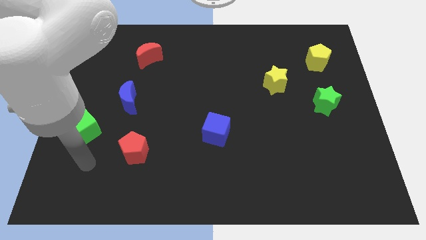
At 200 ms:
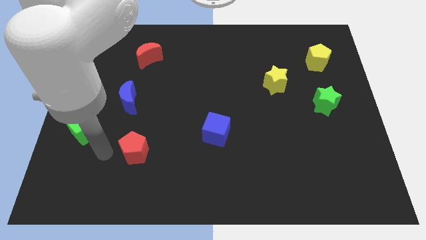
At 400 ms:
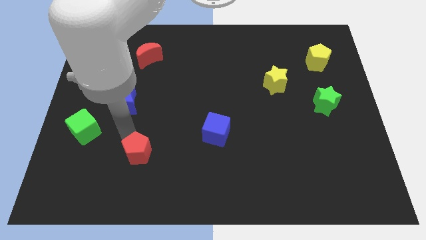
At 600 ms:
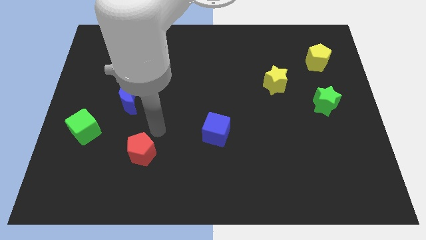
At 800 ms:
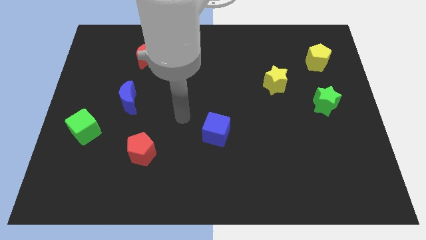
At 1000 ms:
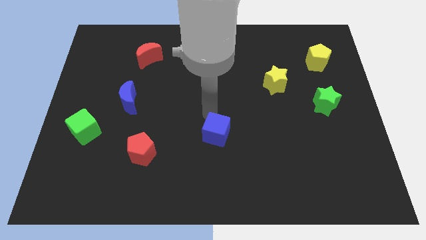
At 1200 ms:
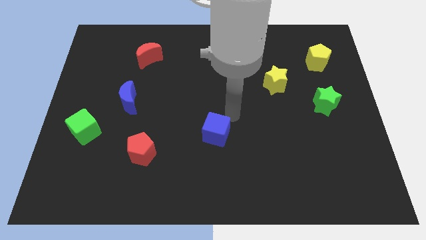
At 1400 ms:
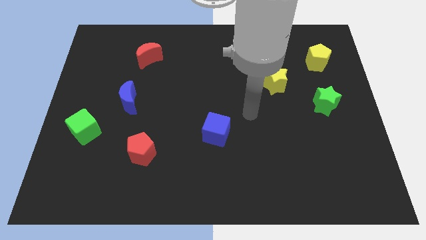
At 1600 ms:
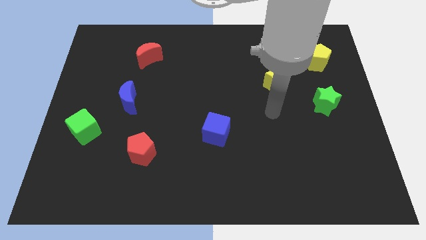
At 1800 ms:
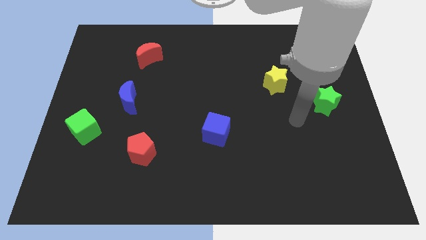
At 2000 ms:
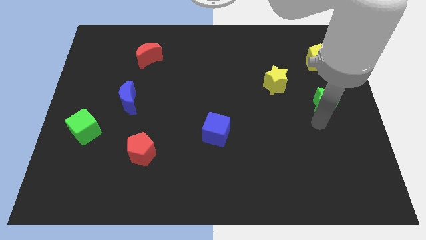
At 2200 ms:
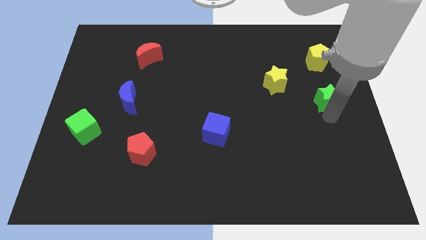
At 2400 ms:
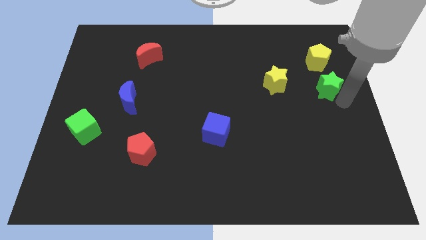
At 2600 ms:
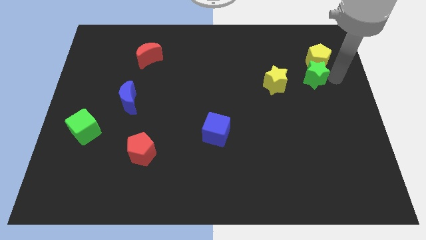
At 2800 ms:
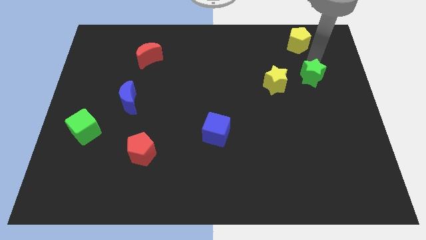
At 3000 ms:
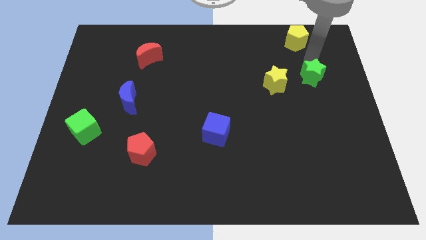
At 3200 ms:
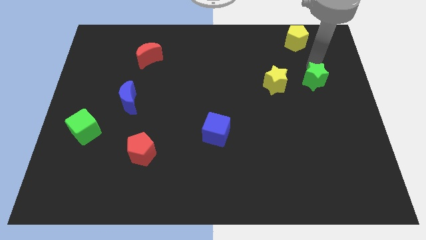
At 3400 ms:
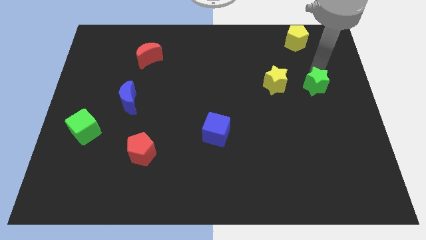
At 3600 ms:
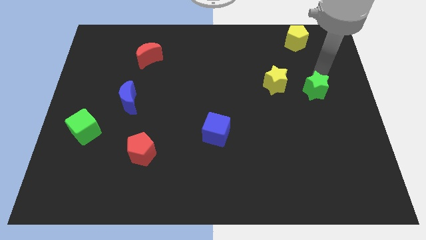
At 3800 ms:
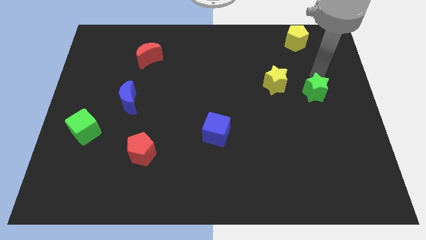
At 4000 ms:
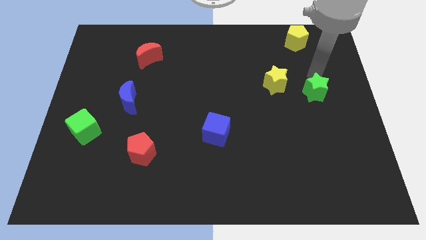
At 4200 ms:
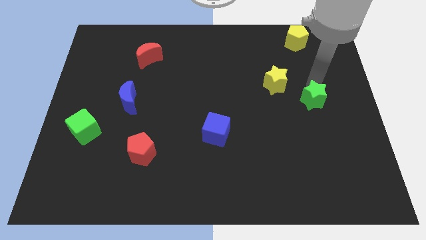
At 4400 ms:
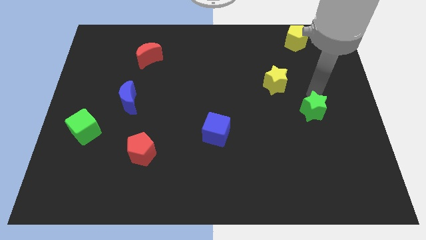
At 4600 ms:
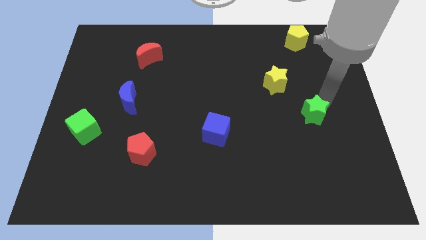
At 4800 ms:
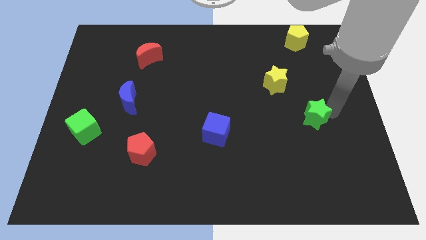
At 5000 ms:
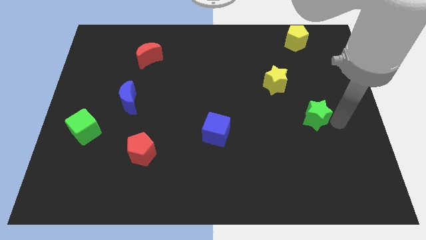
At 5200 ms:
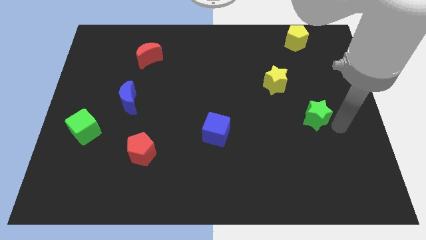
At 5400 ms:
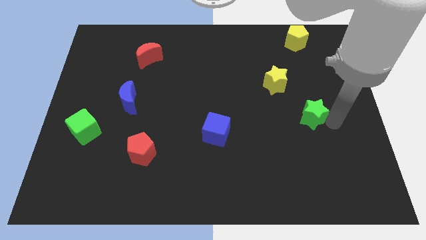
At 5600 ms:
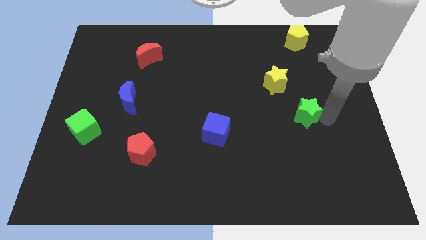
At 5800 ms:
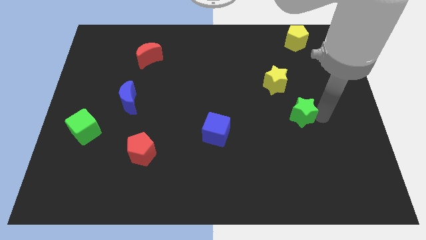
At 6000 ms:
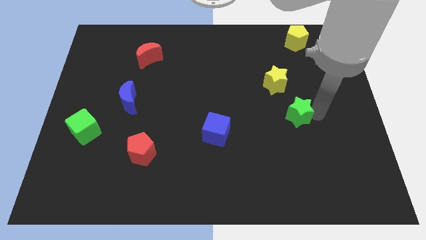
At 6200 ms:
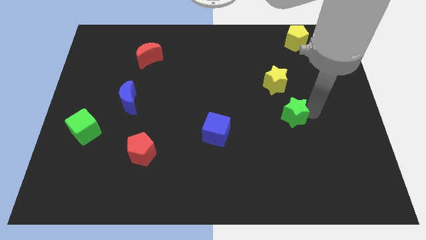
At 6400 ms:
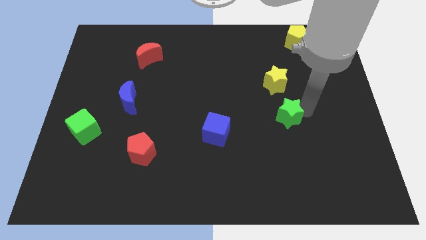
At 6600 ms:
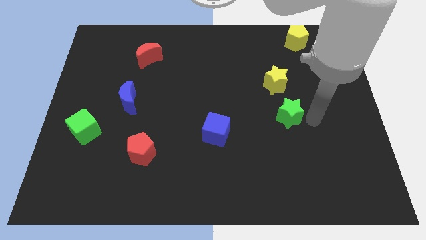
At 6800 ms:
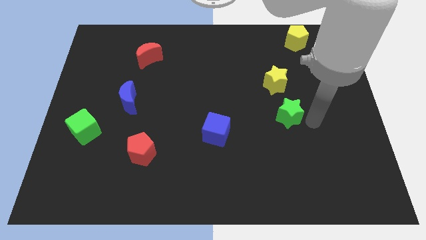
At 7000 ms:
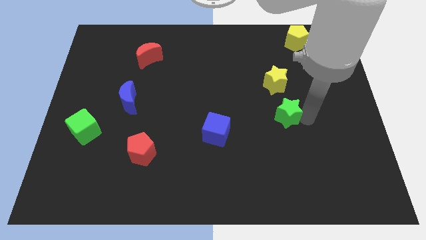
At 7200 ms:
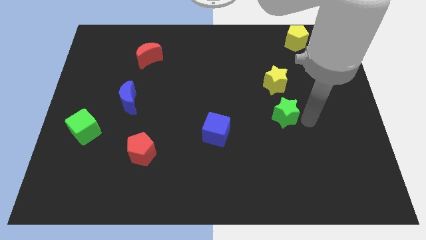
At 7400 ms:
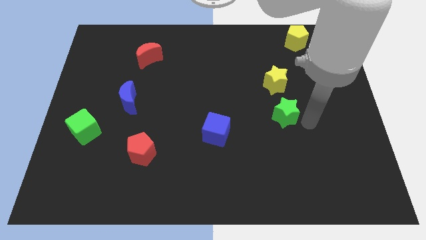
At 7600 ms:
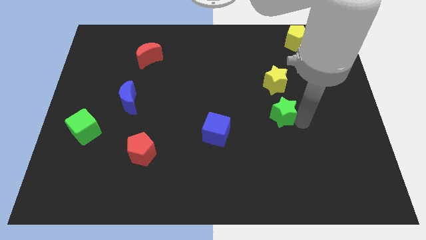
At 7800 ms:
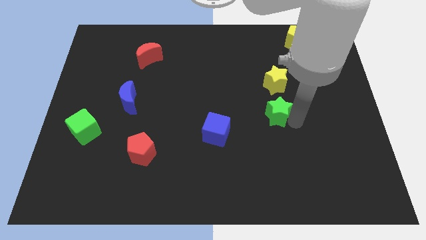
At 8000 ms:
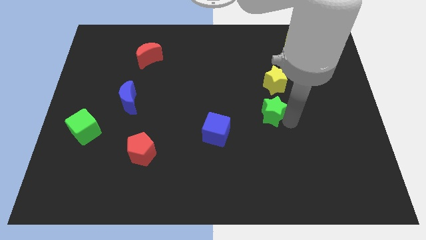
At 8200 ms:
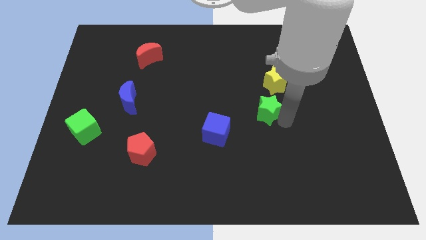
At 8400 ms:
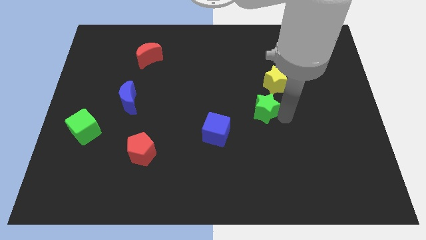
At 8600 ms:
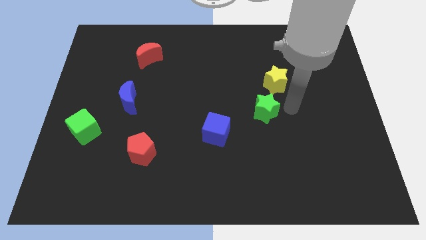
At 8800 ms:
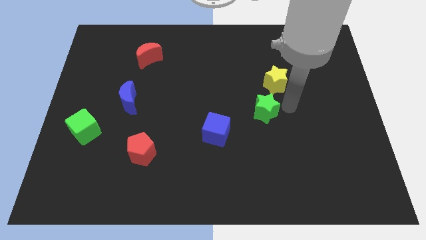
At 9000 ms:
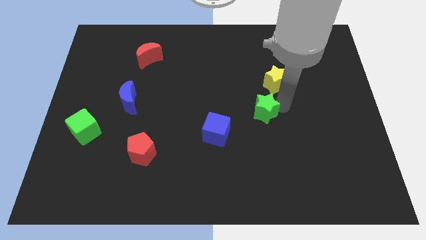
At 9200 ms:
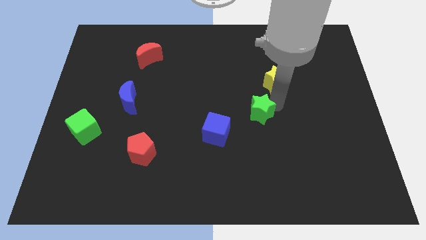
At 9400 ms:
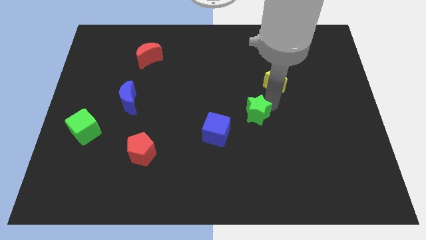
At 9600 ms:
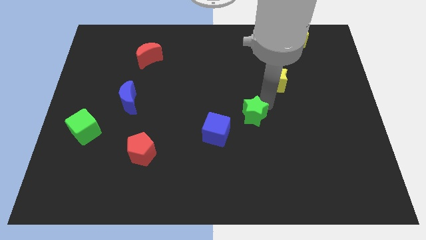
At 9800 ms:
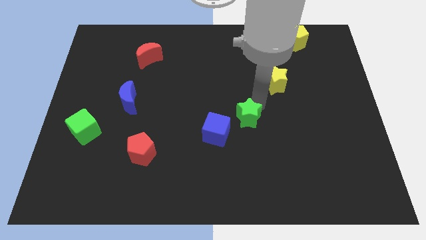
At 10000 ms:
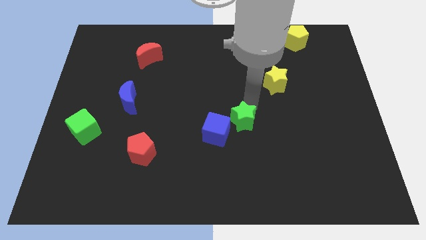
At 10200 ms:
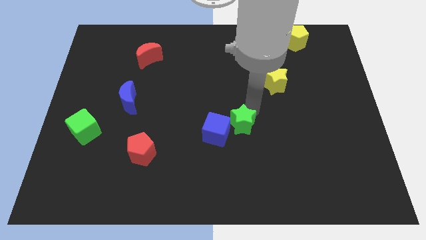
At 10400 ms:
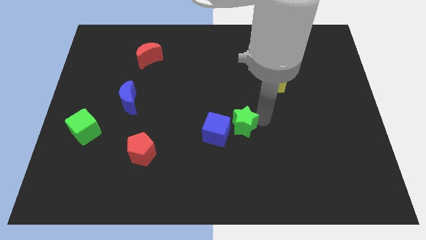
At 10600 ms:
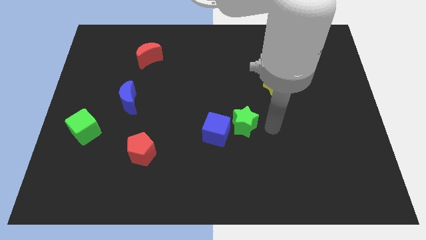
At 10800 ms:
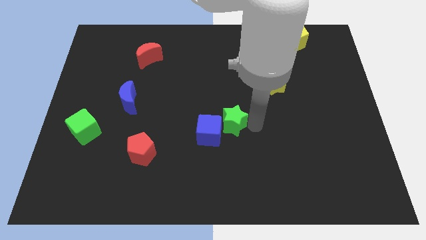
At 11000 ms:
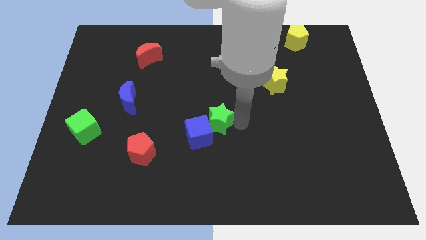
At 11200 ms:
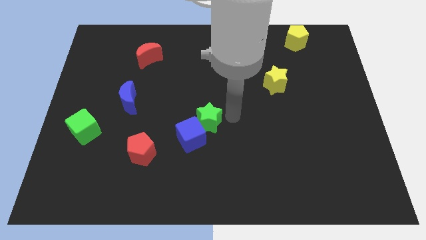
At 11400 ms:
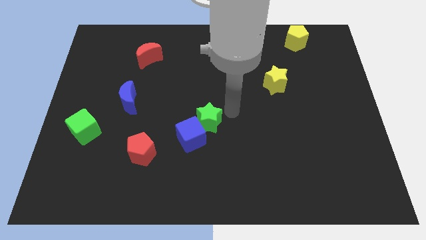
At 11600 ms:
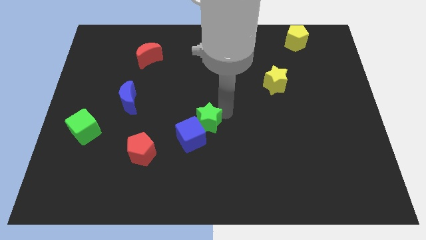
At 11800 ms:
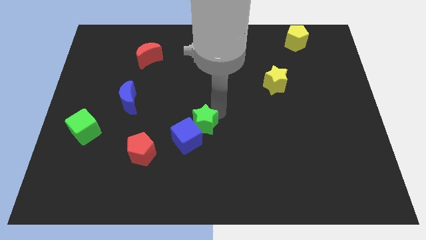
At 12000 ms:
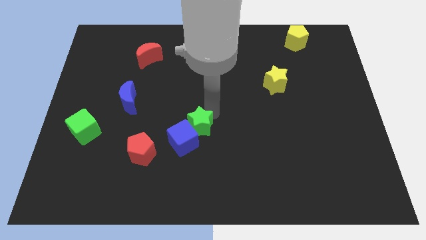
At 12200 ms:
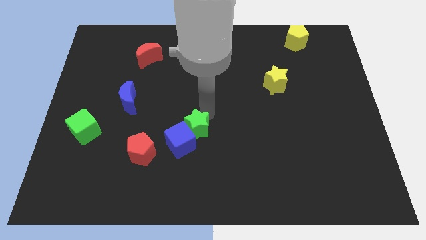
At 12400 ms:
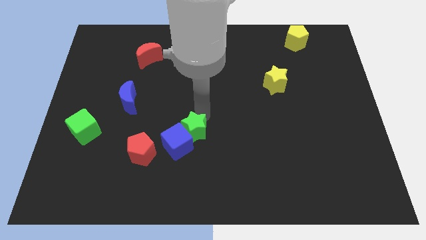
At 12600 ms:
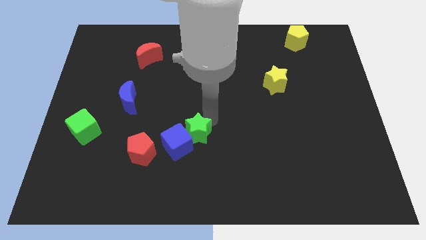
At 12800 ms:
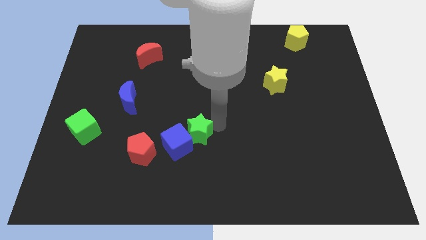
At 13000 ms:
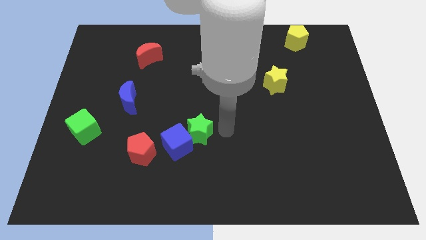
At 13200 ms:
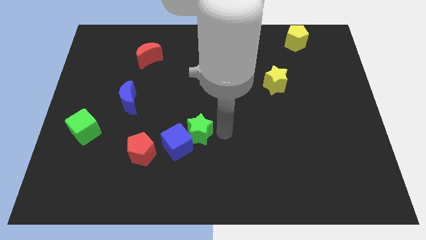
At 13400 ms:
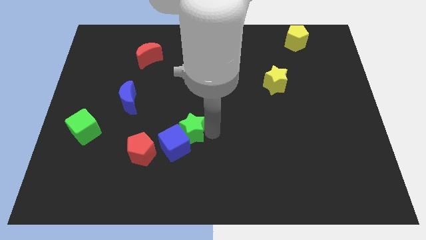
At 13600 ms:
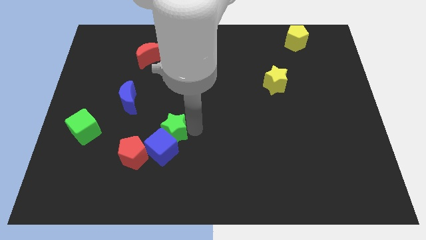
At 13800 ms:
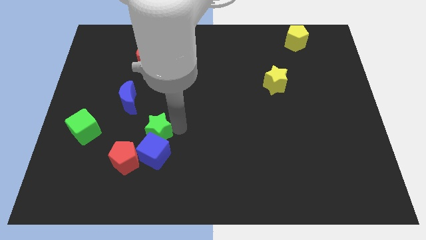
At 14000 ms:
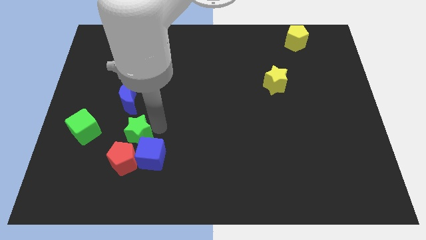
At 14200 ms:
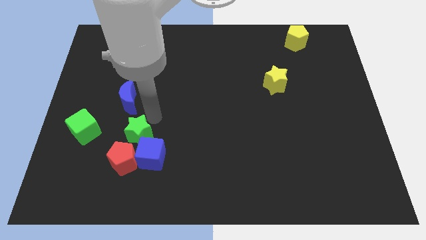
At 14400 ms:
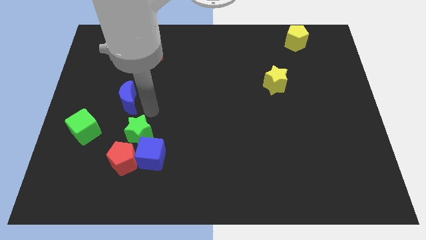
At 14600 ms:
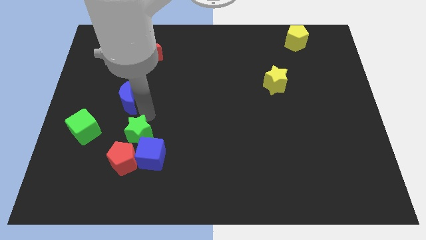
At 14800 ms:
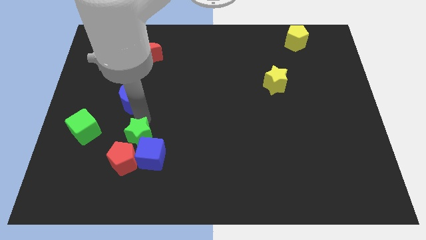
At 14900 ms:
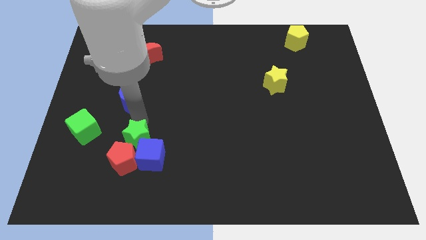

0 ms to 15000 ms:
move the green star towards the red pentagon
